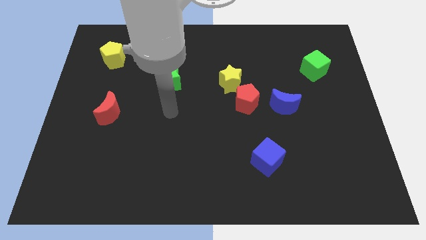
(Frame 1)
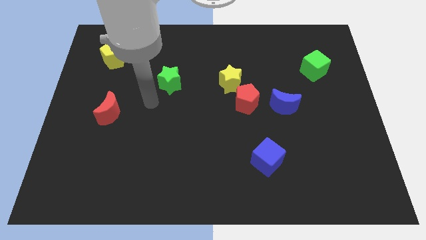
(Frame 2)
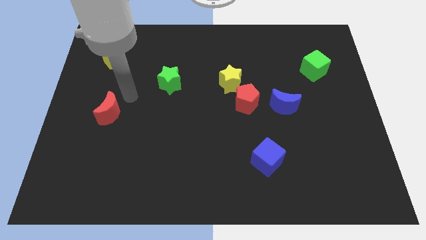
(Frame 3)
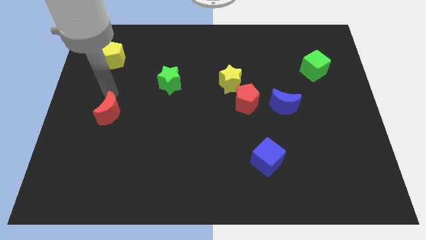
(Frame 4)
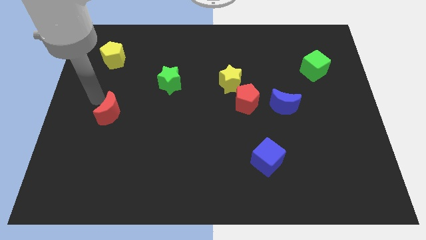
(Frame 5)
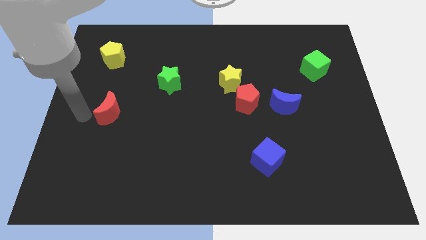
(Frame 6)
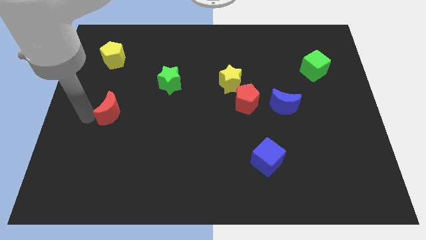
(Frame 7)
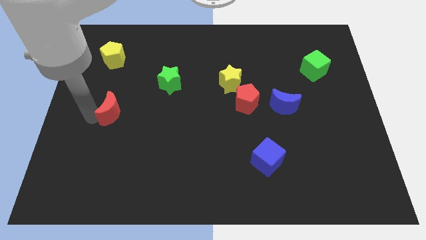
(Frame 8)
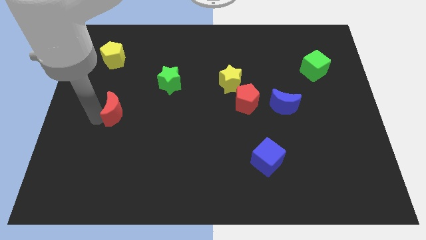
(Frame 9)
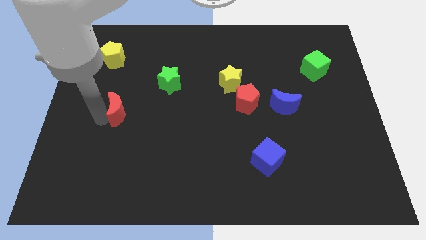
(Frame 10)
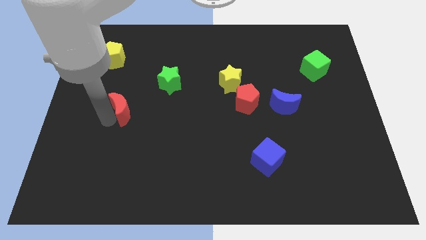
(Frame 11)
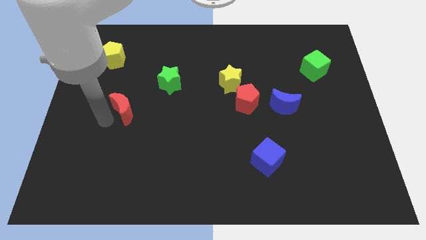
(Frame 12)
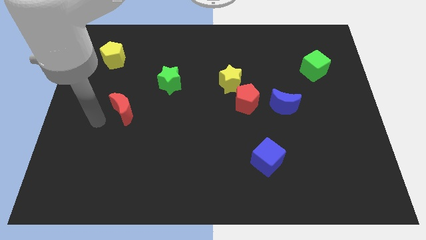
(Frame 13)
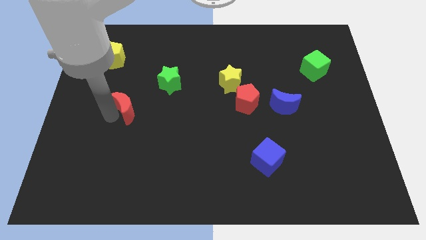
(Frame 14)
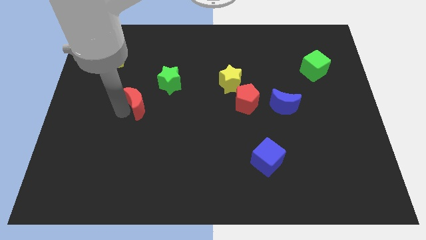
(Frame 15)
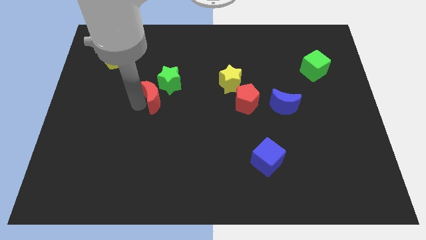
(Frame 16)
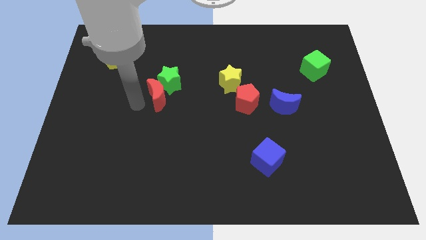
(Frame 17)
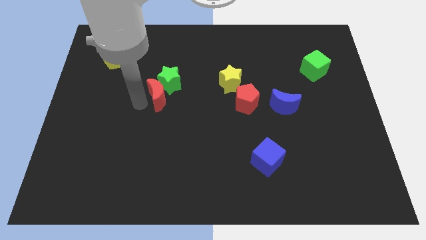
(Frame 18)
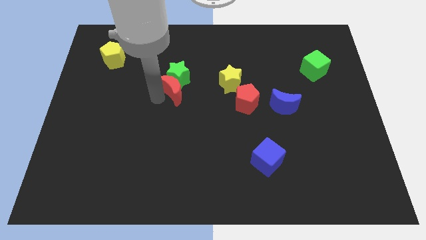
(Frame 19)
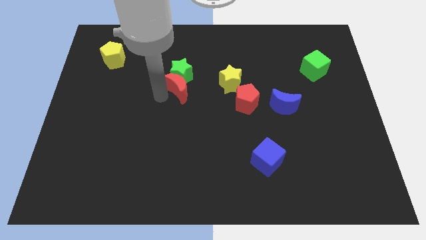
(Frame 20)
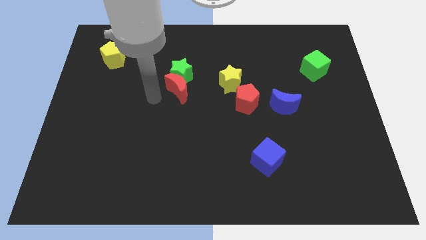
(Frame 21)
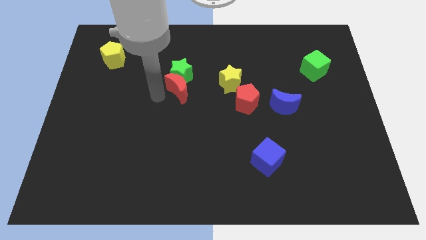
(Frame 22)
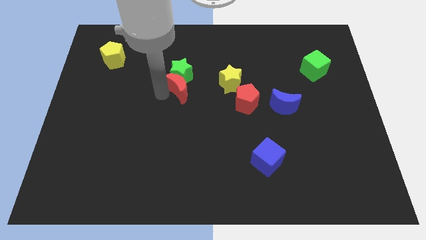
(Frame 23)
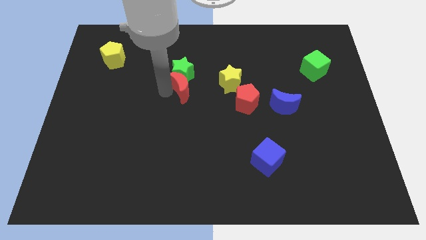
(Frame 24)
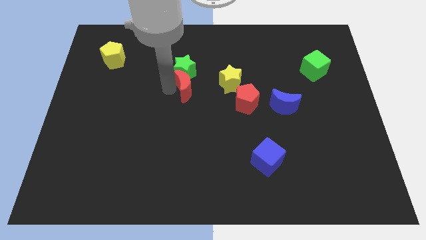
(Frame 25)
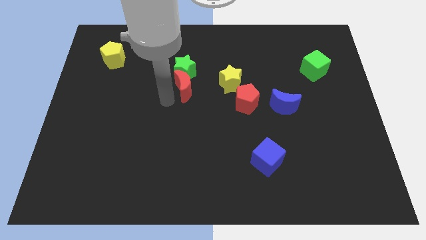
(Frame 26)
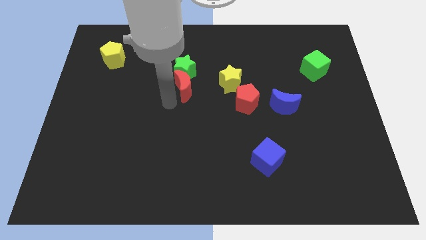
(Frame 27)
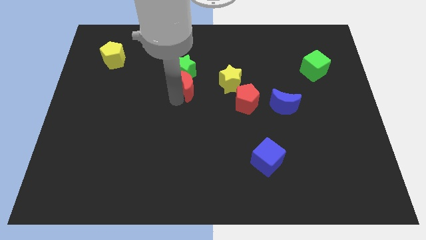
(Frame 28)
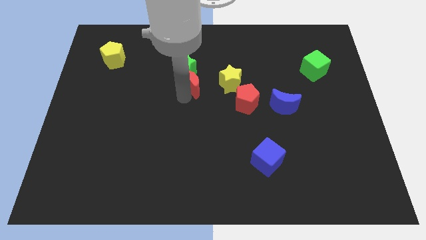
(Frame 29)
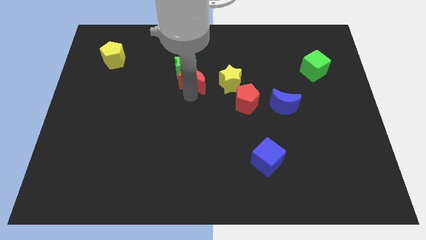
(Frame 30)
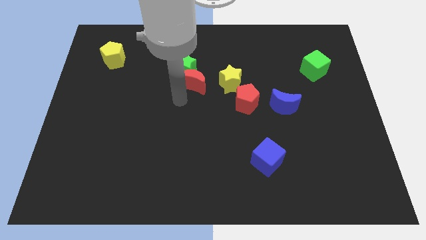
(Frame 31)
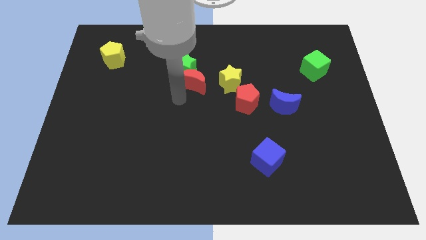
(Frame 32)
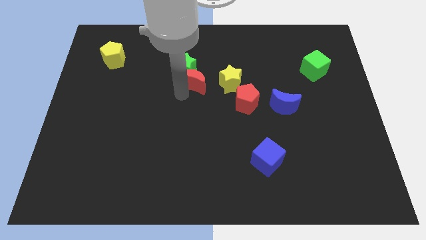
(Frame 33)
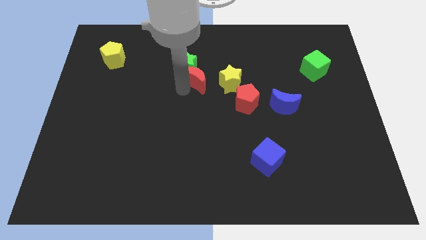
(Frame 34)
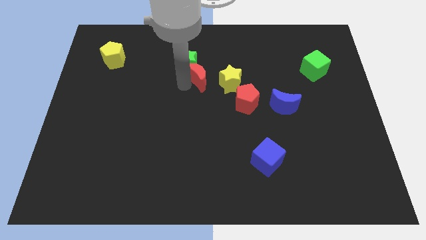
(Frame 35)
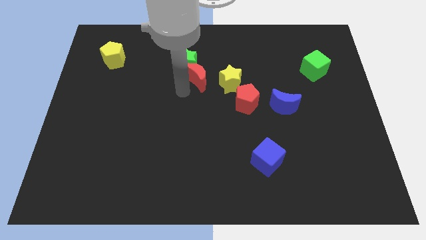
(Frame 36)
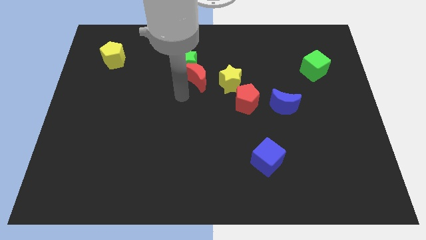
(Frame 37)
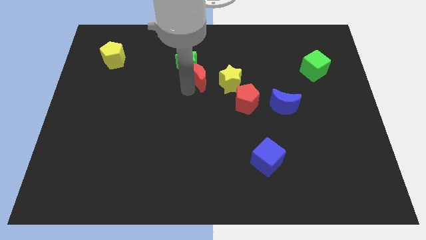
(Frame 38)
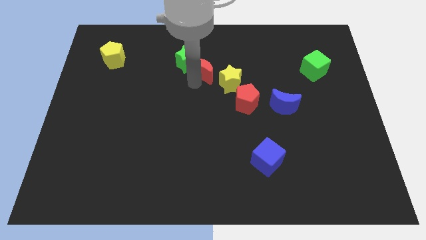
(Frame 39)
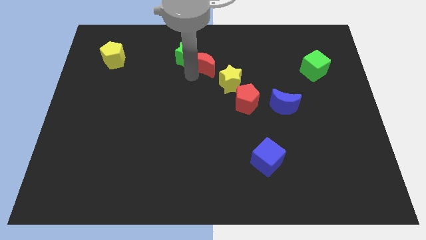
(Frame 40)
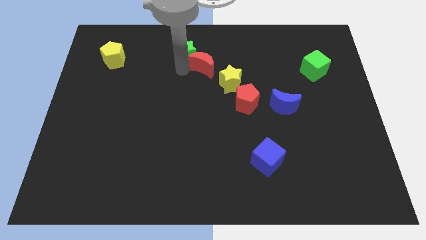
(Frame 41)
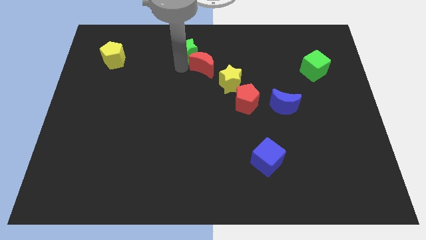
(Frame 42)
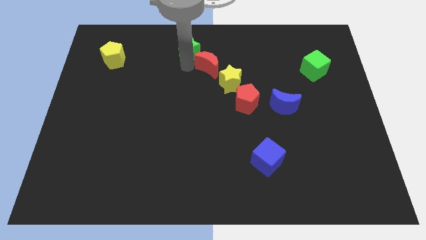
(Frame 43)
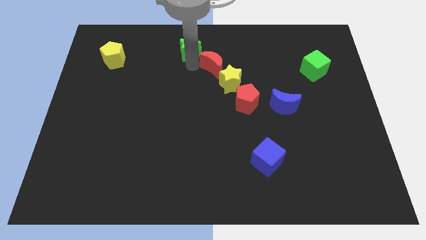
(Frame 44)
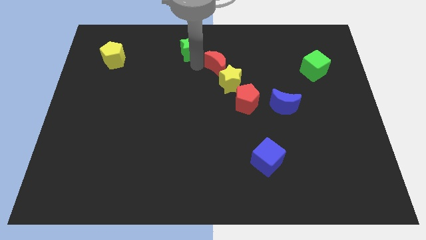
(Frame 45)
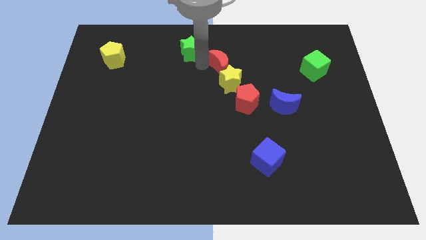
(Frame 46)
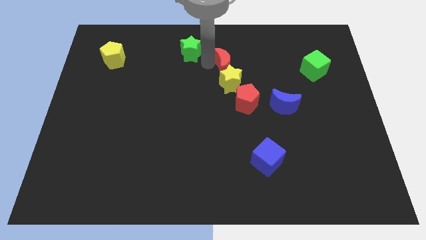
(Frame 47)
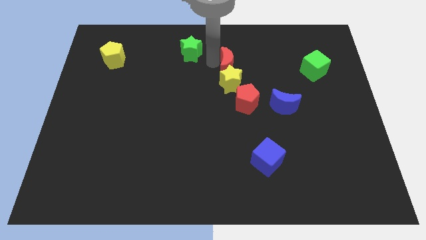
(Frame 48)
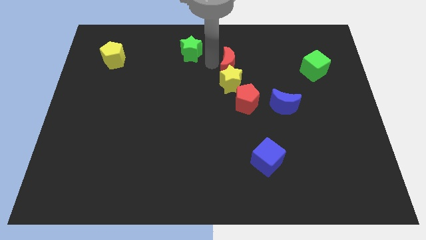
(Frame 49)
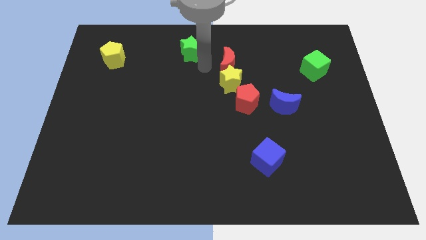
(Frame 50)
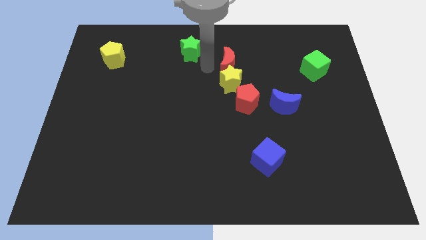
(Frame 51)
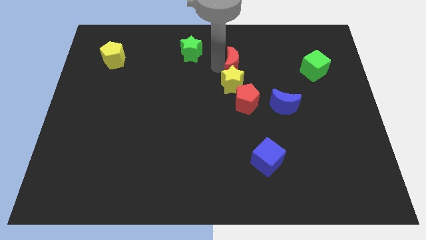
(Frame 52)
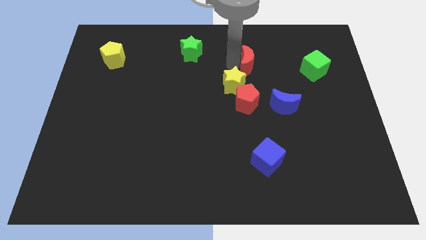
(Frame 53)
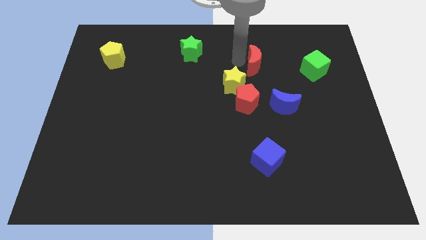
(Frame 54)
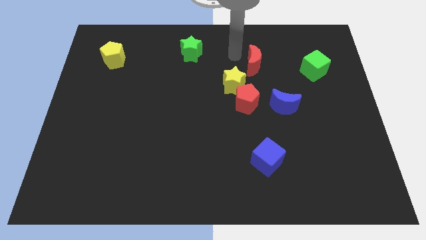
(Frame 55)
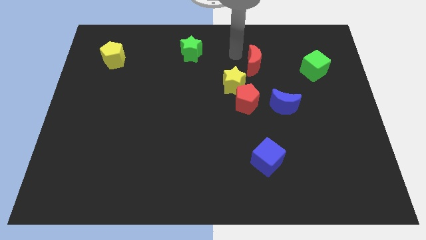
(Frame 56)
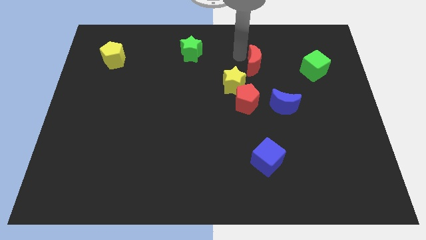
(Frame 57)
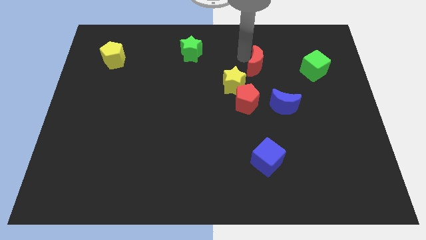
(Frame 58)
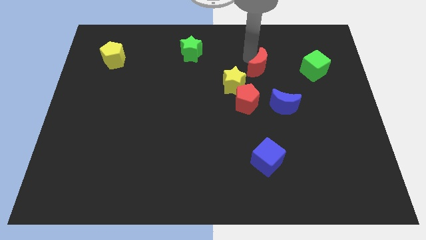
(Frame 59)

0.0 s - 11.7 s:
slide the red moon above the blue moon
